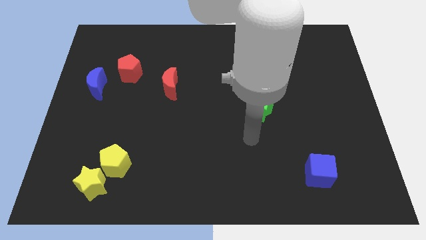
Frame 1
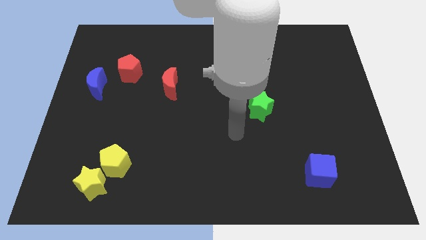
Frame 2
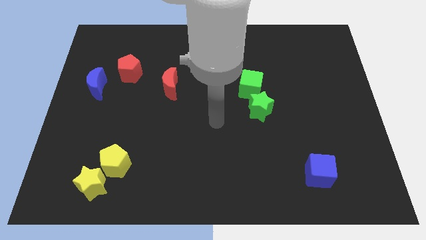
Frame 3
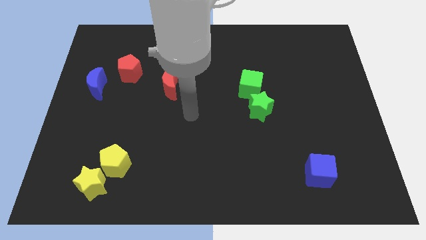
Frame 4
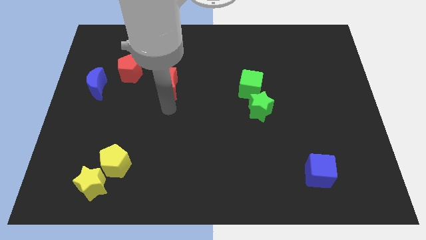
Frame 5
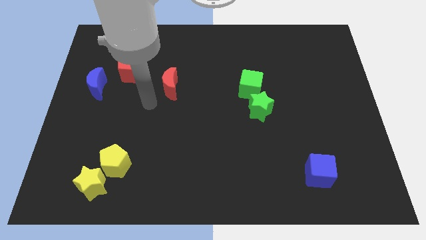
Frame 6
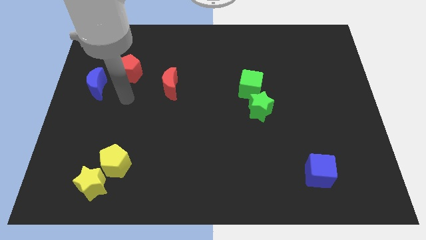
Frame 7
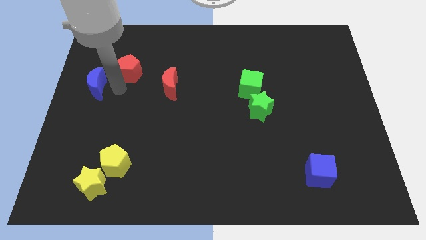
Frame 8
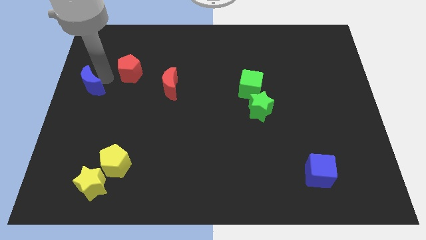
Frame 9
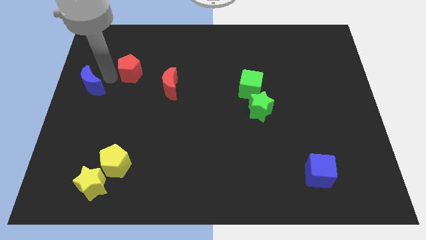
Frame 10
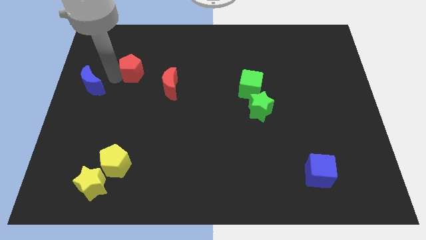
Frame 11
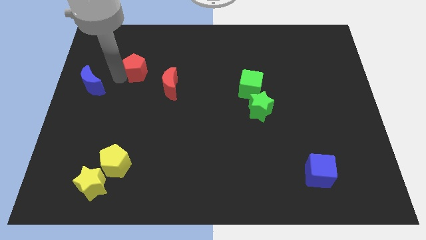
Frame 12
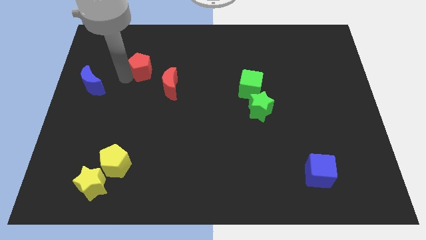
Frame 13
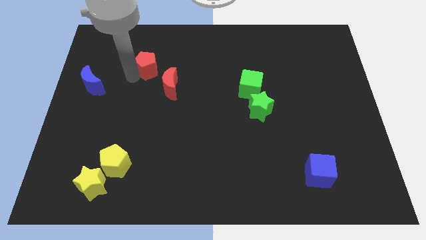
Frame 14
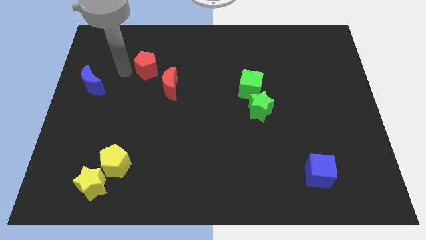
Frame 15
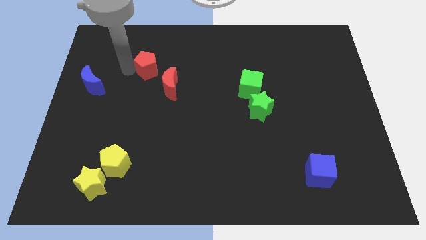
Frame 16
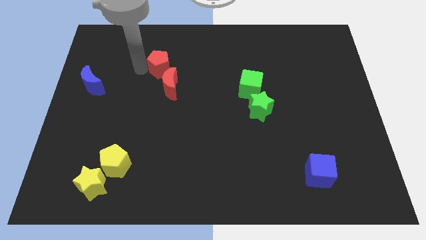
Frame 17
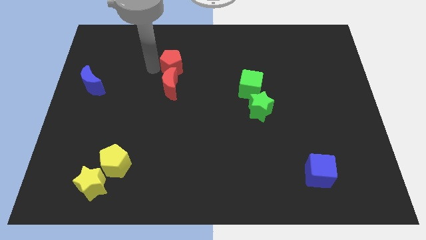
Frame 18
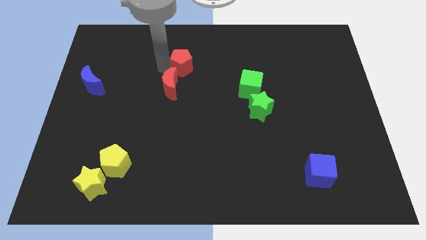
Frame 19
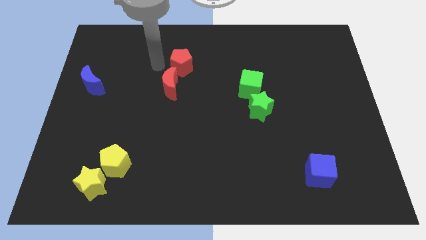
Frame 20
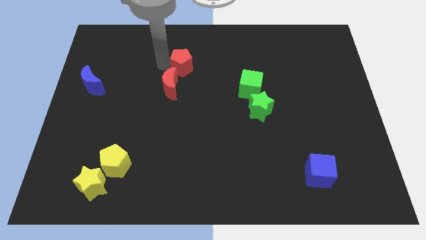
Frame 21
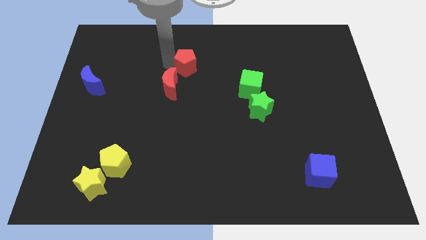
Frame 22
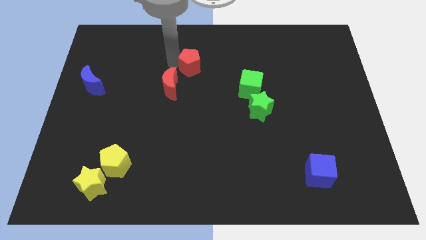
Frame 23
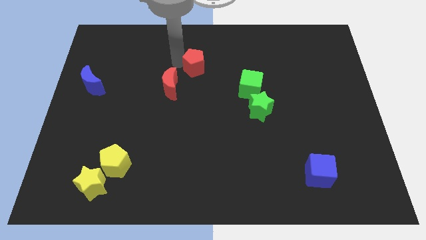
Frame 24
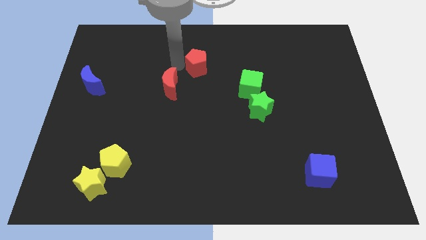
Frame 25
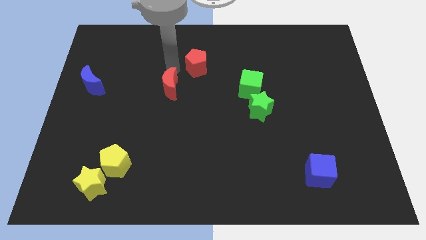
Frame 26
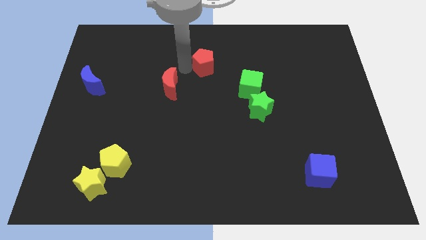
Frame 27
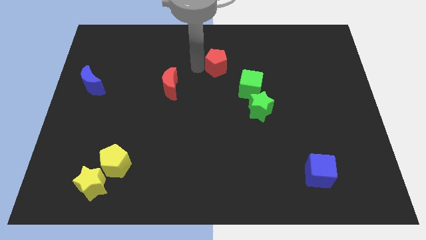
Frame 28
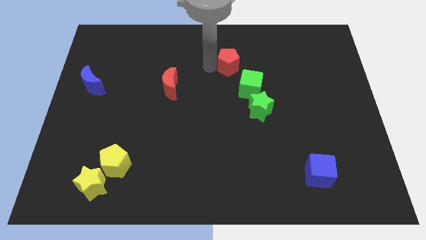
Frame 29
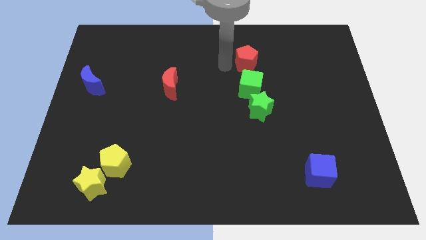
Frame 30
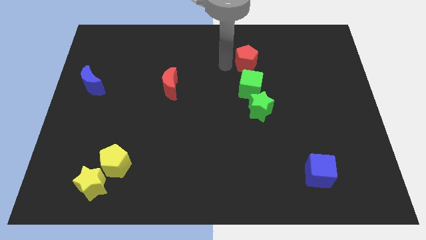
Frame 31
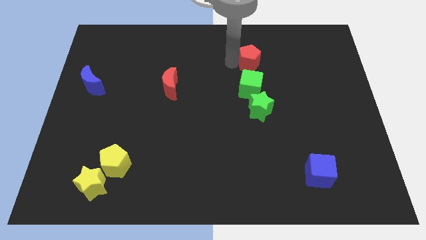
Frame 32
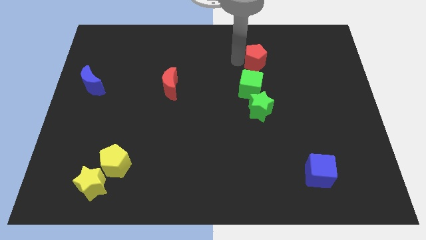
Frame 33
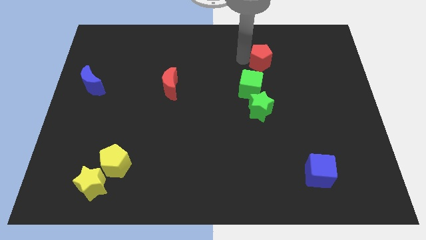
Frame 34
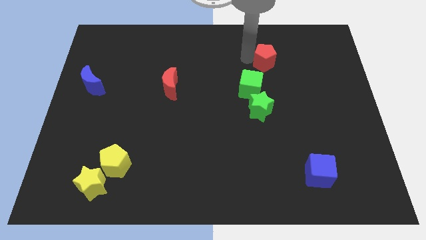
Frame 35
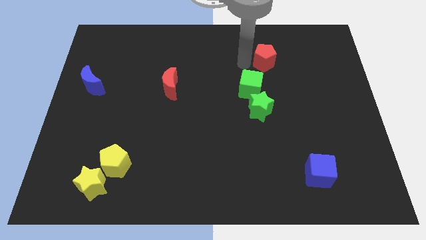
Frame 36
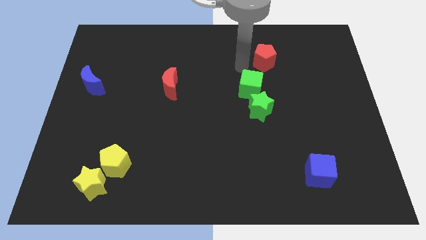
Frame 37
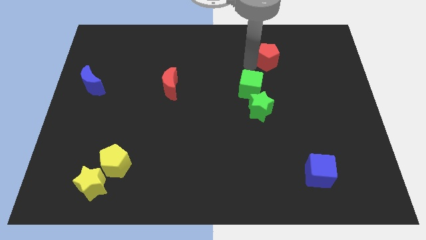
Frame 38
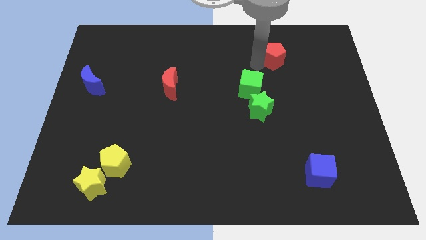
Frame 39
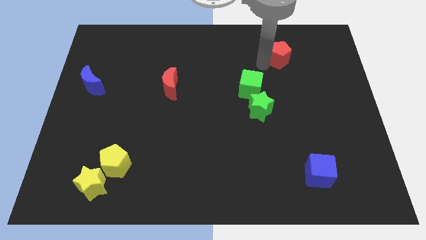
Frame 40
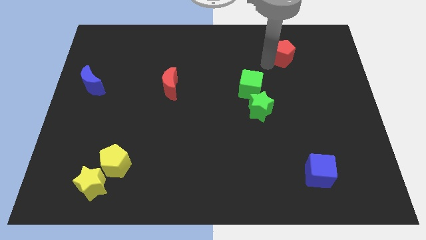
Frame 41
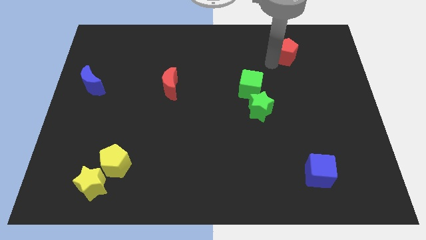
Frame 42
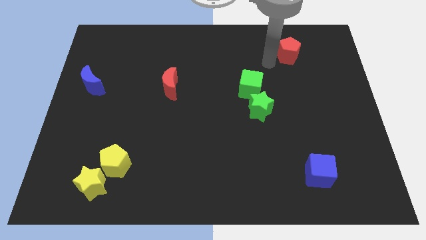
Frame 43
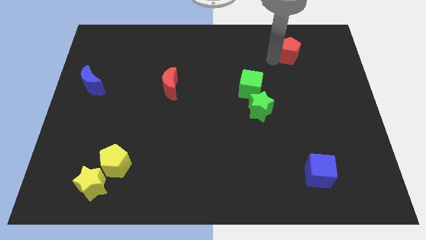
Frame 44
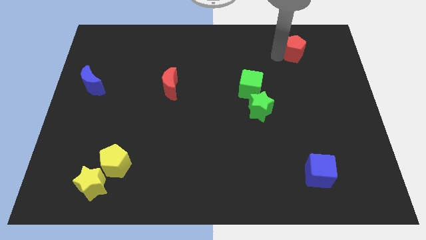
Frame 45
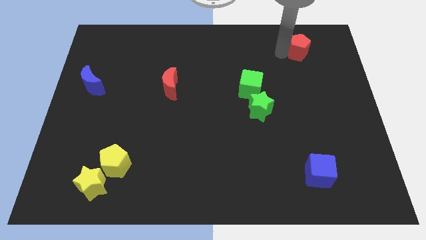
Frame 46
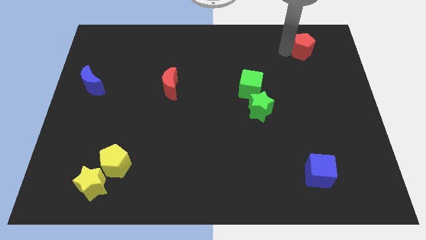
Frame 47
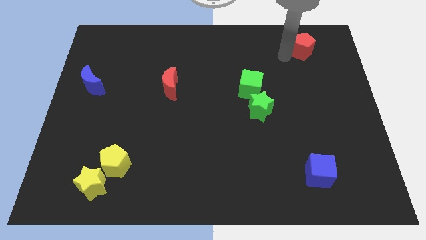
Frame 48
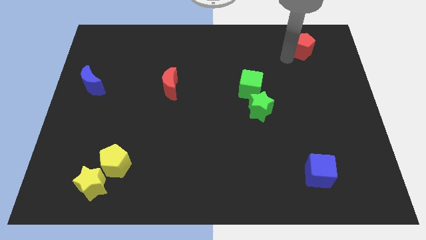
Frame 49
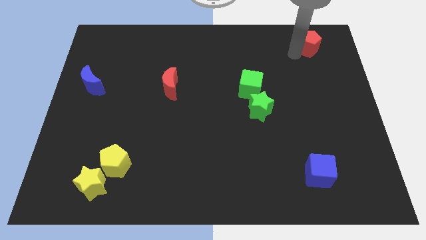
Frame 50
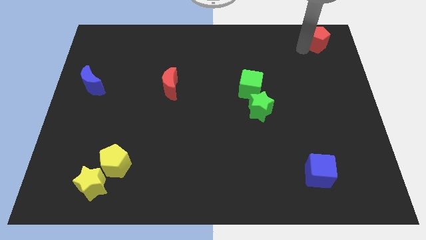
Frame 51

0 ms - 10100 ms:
push the red pentagon to the top right
